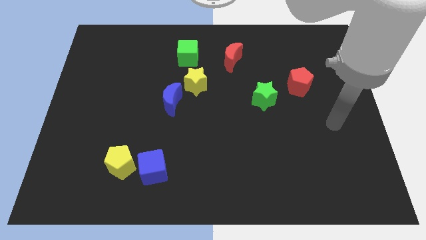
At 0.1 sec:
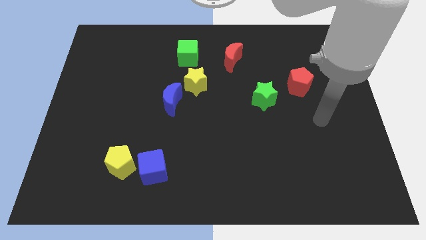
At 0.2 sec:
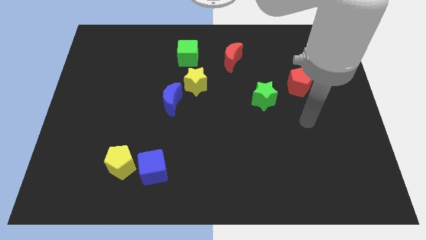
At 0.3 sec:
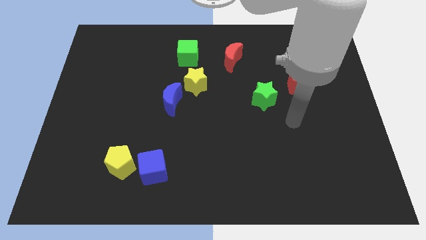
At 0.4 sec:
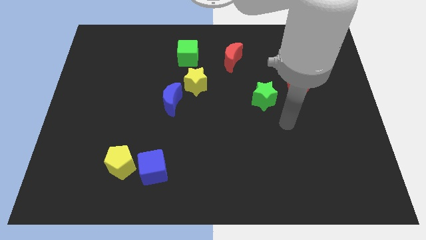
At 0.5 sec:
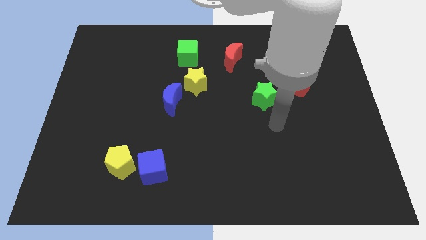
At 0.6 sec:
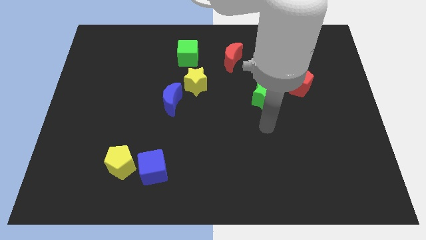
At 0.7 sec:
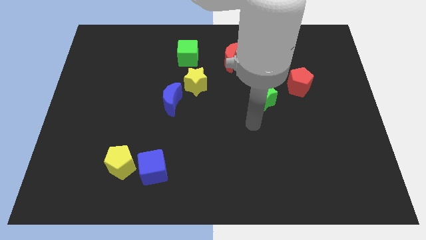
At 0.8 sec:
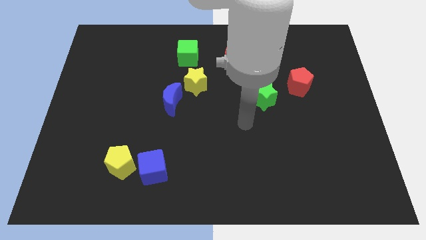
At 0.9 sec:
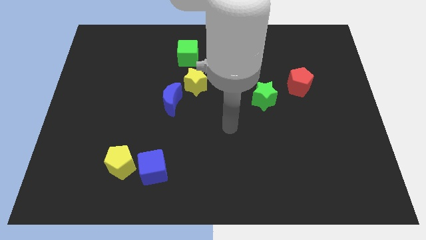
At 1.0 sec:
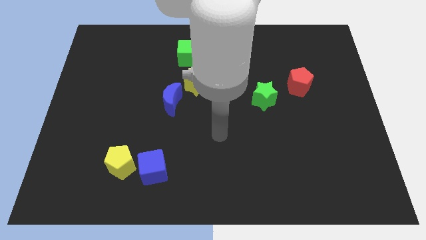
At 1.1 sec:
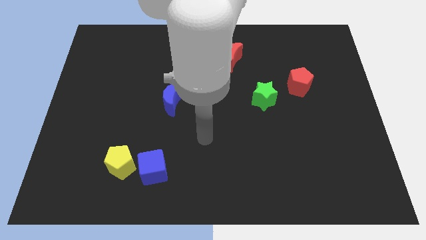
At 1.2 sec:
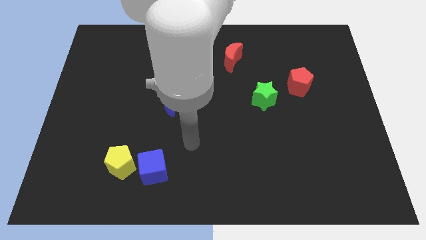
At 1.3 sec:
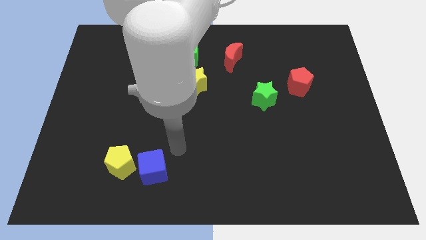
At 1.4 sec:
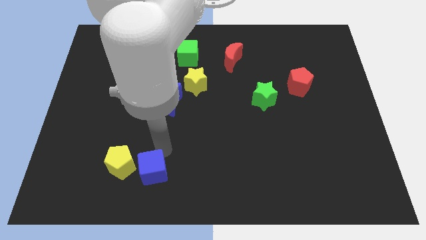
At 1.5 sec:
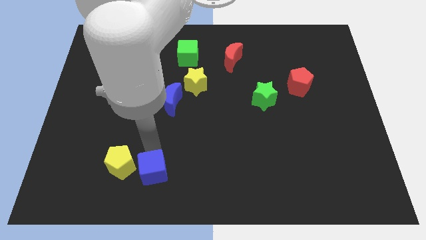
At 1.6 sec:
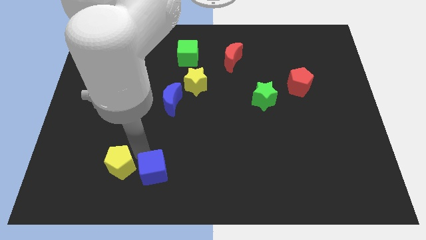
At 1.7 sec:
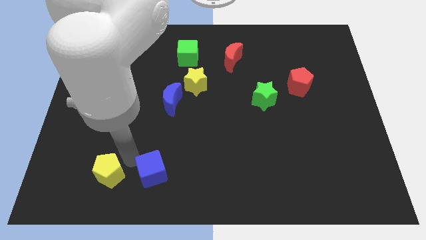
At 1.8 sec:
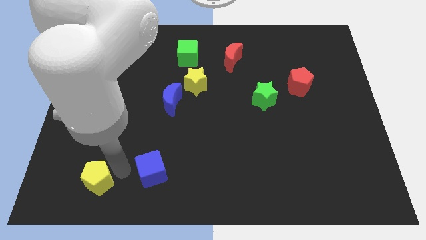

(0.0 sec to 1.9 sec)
move the blue cube away from the yellow pentagon

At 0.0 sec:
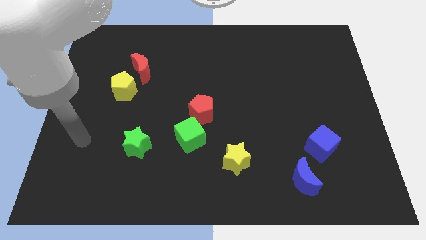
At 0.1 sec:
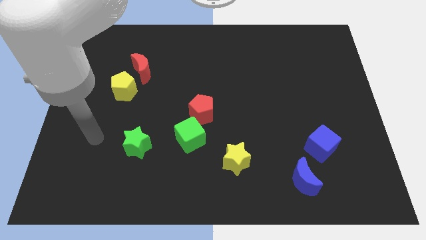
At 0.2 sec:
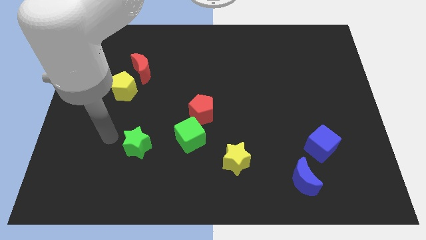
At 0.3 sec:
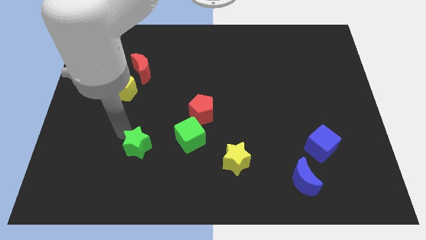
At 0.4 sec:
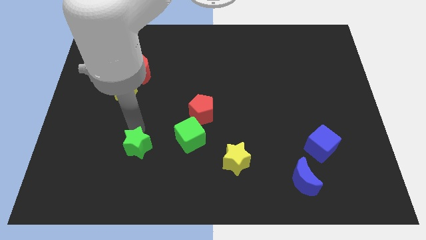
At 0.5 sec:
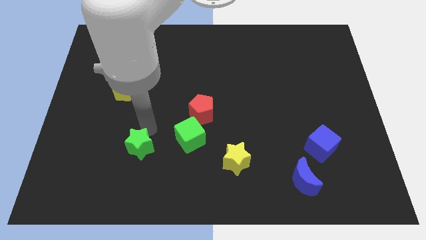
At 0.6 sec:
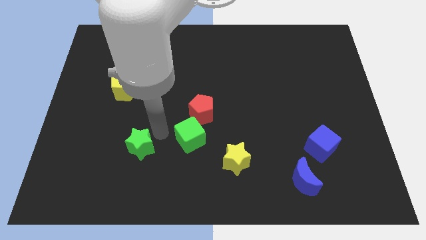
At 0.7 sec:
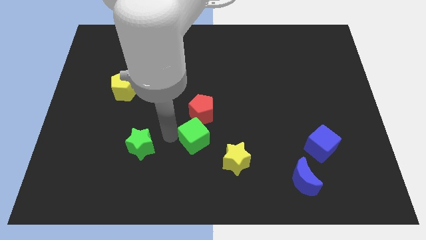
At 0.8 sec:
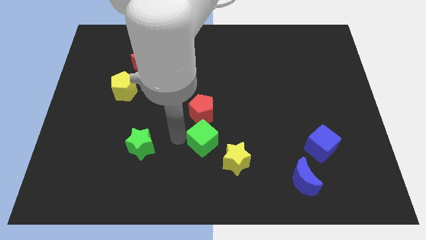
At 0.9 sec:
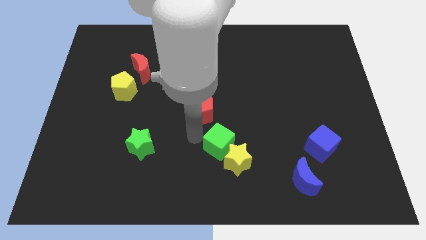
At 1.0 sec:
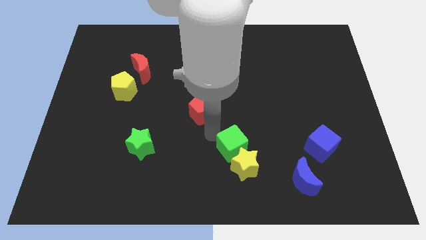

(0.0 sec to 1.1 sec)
move the red pentagon away from the green cube

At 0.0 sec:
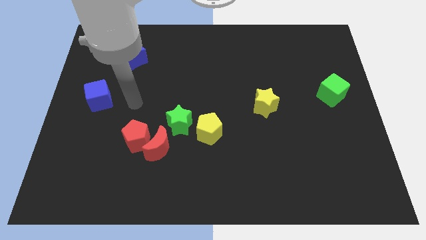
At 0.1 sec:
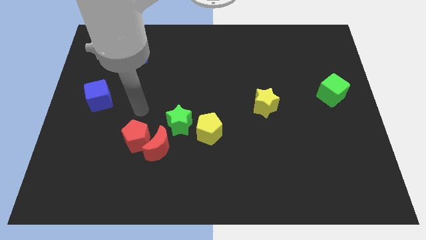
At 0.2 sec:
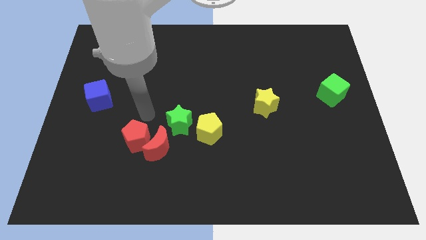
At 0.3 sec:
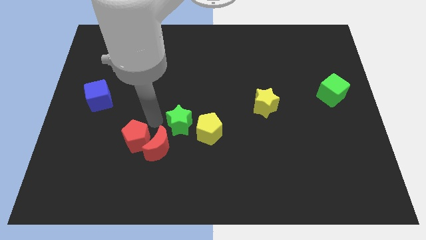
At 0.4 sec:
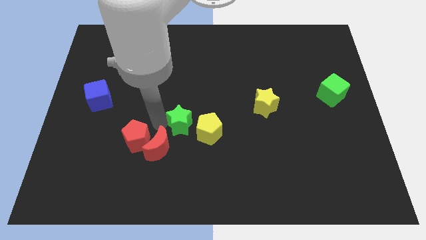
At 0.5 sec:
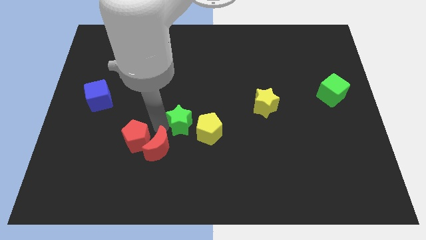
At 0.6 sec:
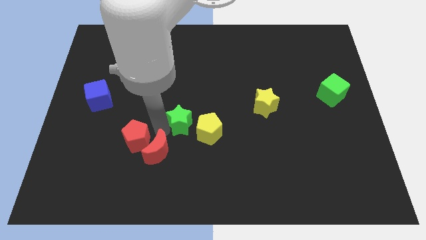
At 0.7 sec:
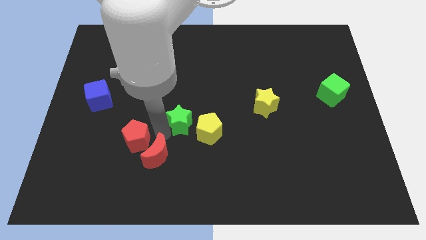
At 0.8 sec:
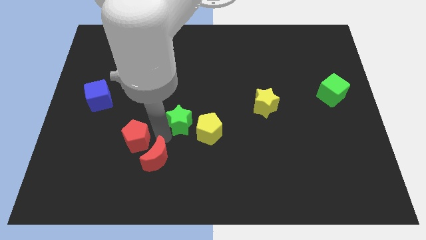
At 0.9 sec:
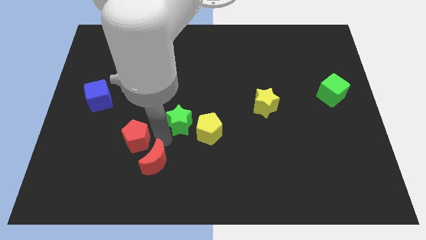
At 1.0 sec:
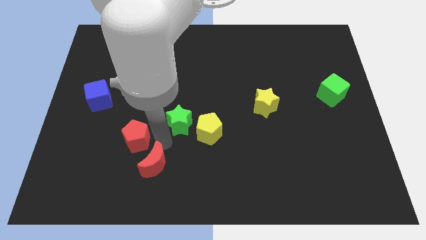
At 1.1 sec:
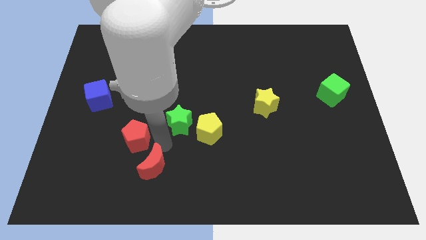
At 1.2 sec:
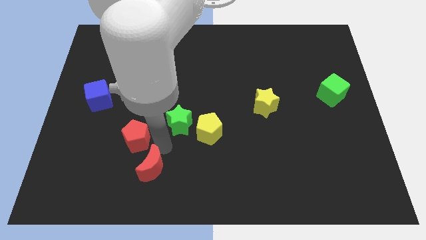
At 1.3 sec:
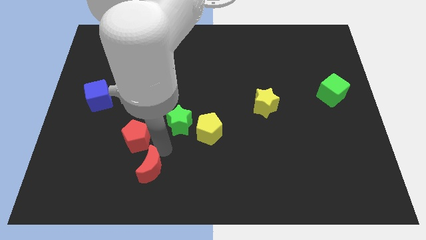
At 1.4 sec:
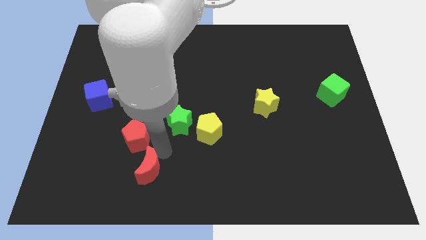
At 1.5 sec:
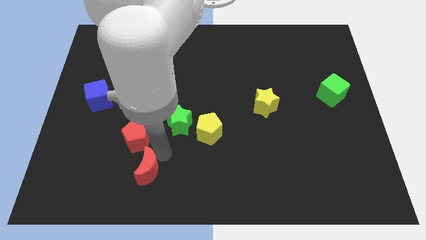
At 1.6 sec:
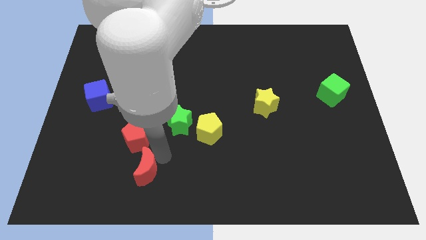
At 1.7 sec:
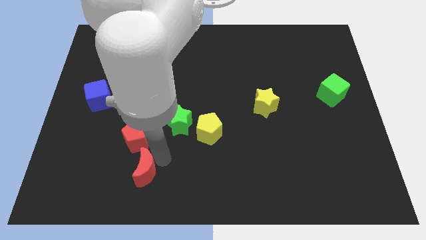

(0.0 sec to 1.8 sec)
move the red moon away from the red pentagon and green star

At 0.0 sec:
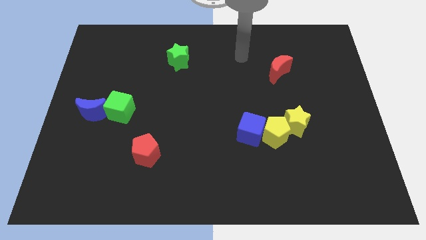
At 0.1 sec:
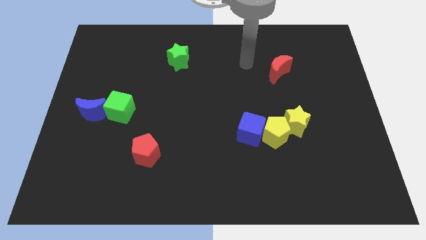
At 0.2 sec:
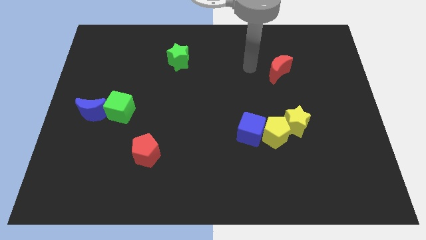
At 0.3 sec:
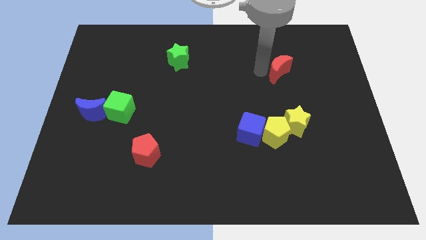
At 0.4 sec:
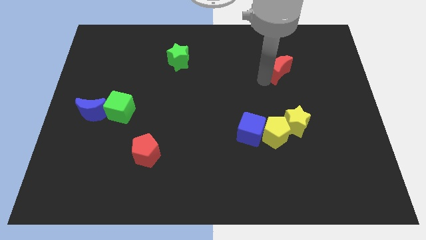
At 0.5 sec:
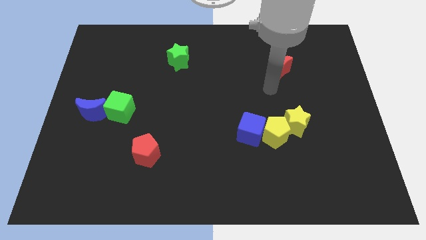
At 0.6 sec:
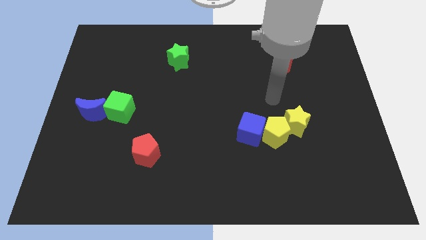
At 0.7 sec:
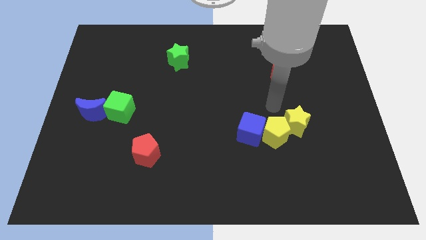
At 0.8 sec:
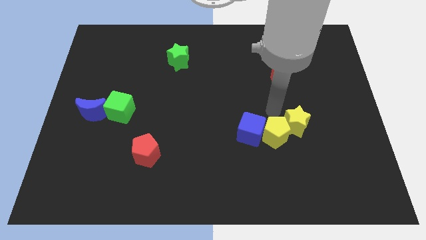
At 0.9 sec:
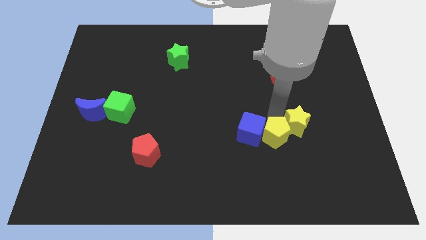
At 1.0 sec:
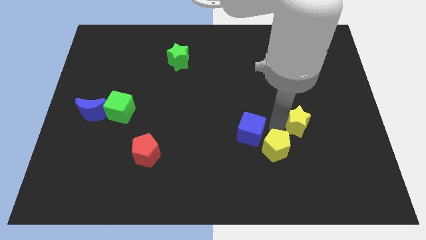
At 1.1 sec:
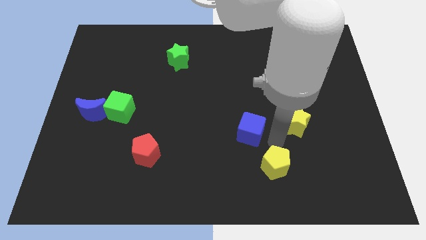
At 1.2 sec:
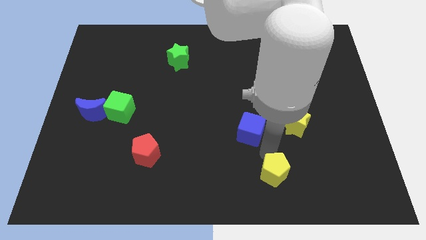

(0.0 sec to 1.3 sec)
pull the blue cube apart from the yellow pentagon

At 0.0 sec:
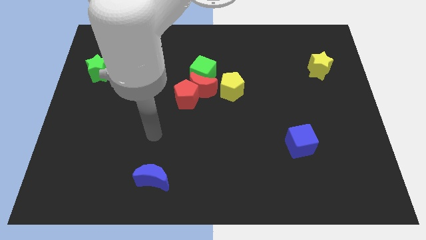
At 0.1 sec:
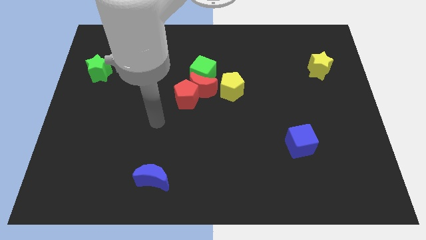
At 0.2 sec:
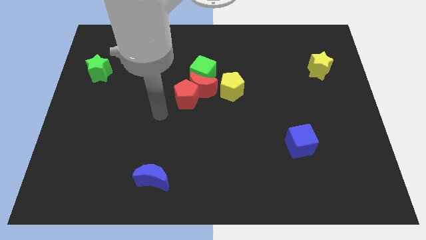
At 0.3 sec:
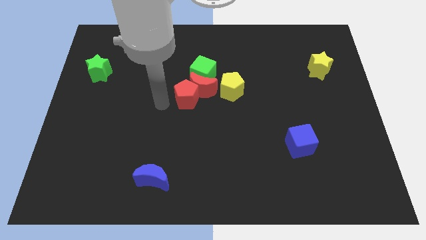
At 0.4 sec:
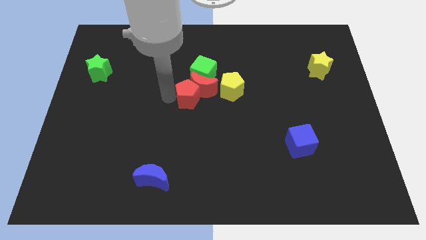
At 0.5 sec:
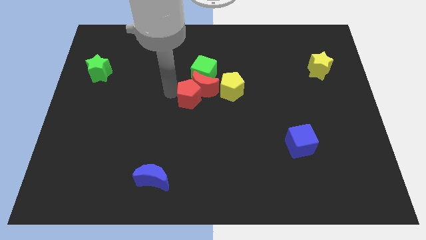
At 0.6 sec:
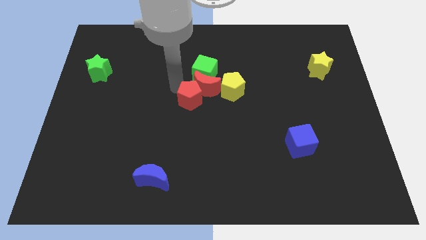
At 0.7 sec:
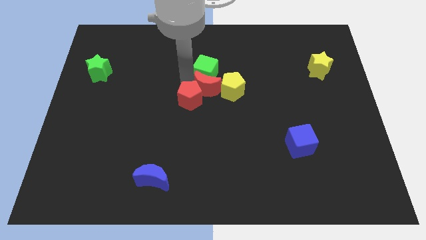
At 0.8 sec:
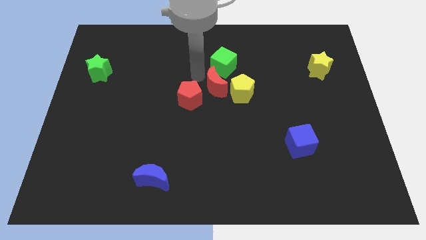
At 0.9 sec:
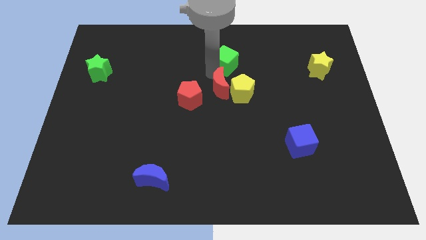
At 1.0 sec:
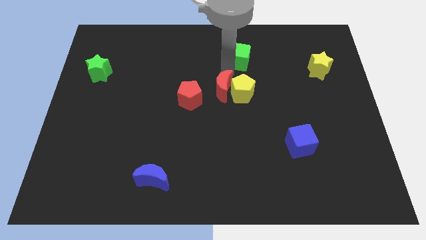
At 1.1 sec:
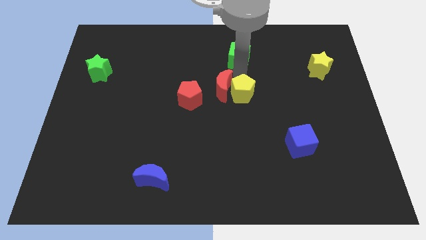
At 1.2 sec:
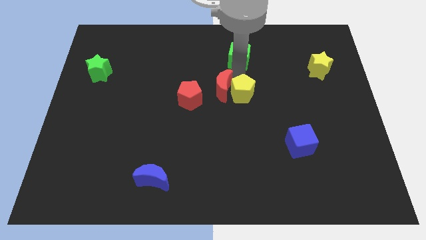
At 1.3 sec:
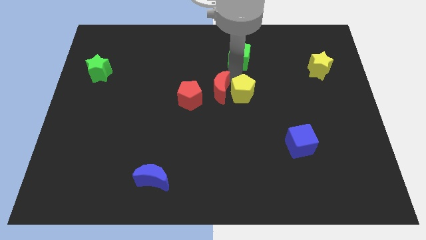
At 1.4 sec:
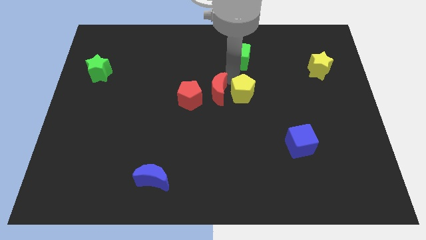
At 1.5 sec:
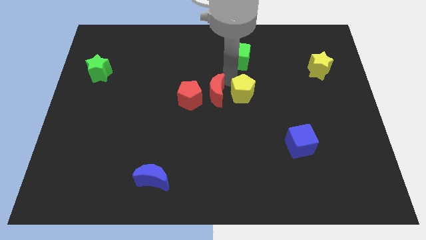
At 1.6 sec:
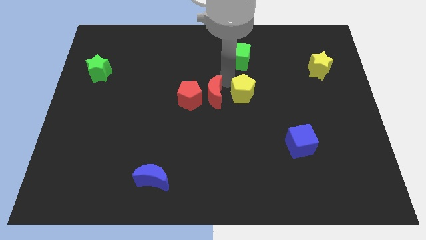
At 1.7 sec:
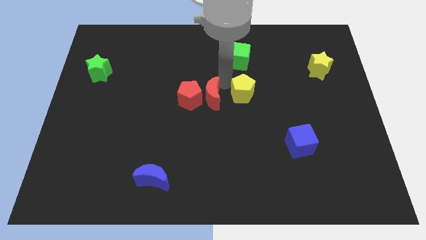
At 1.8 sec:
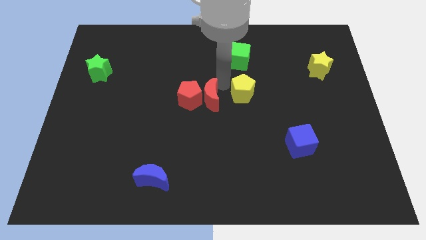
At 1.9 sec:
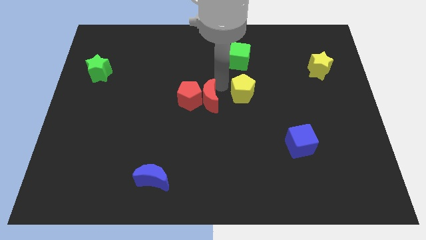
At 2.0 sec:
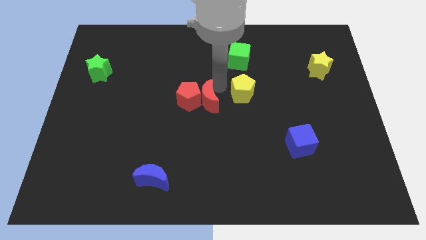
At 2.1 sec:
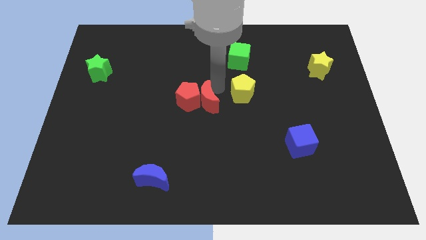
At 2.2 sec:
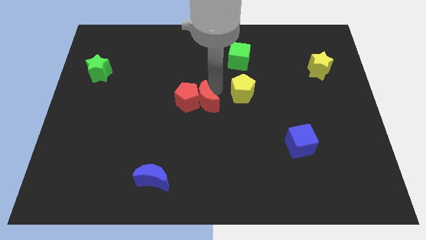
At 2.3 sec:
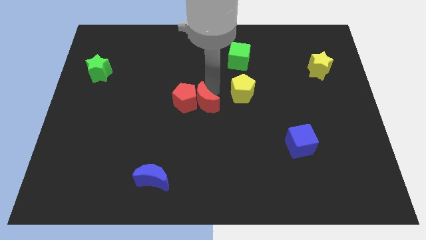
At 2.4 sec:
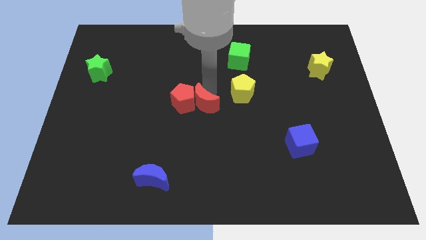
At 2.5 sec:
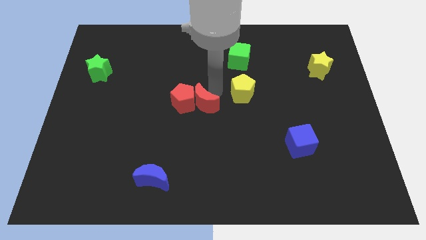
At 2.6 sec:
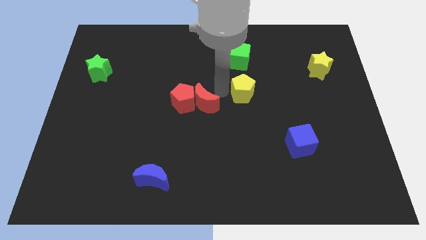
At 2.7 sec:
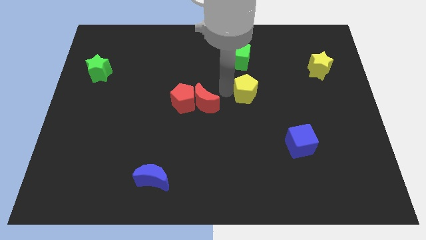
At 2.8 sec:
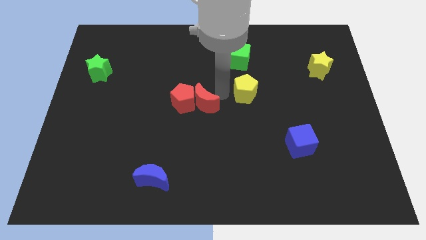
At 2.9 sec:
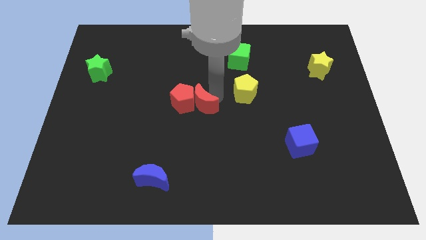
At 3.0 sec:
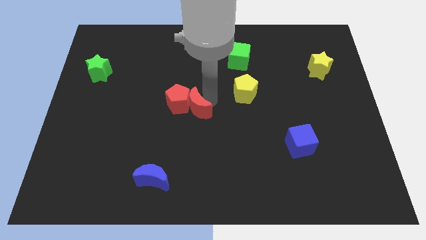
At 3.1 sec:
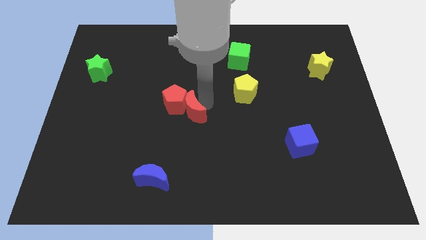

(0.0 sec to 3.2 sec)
pull the red moon apart from the red pentagon, green cube, and yellow pentagon
